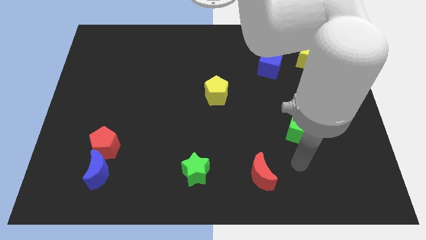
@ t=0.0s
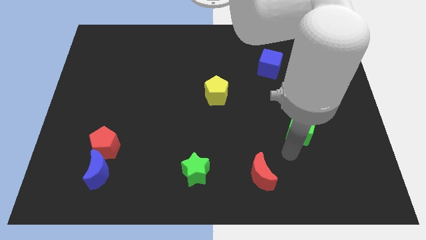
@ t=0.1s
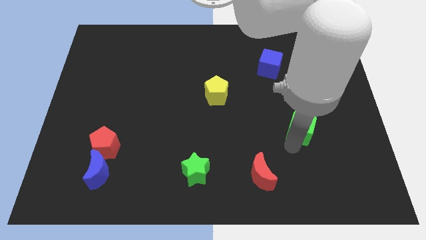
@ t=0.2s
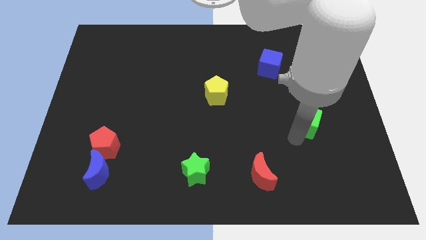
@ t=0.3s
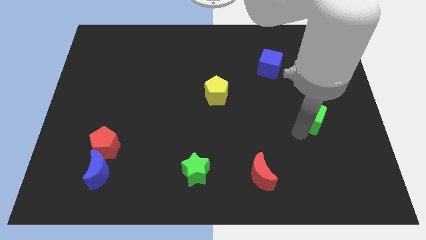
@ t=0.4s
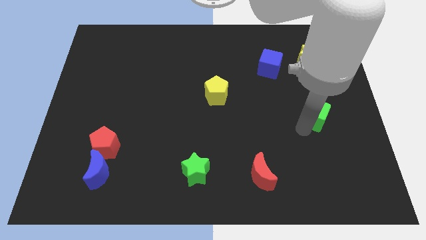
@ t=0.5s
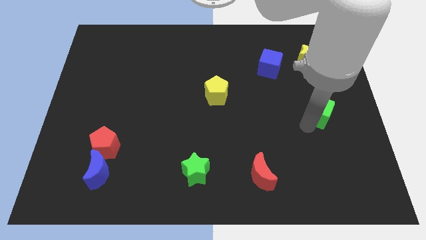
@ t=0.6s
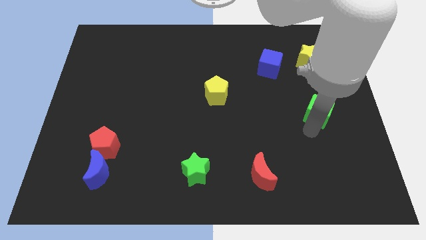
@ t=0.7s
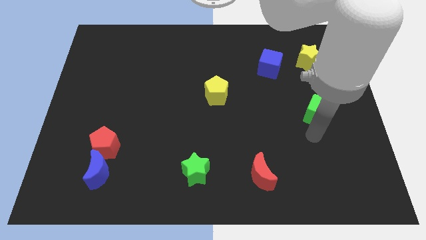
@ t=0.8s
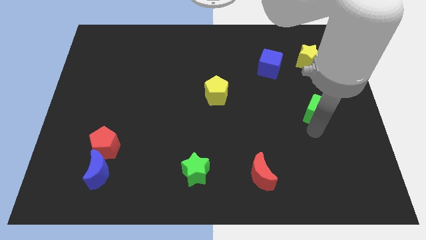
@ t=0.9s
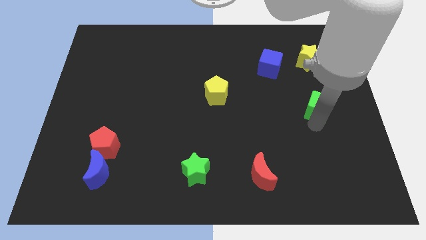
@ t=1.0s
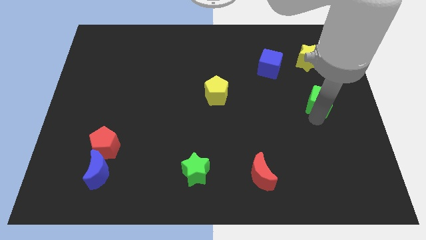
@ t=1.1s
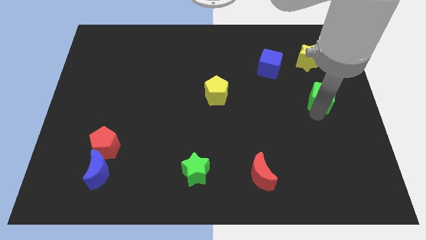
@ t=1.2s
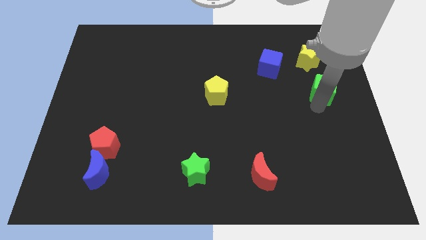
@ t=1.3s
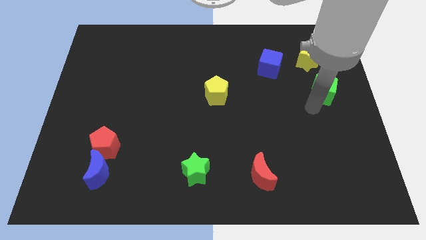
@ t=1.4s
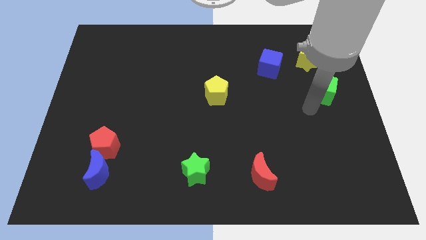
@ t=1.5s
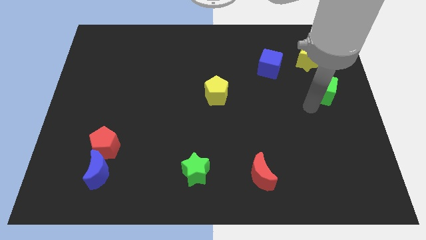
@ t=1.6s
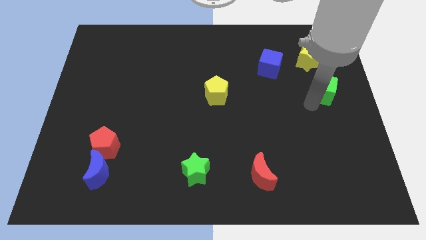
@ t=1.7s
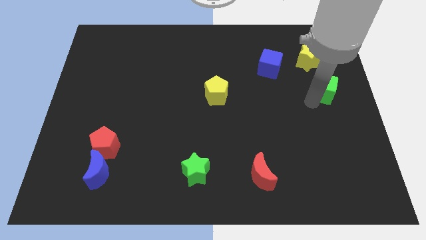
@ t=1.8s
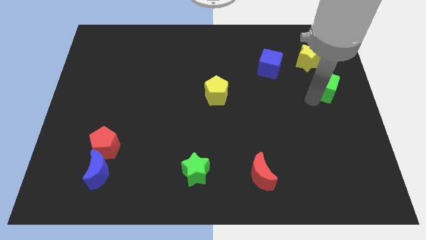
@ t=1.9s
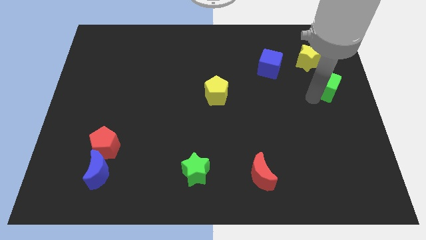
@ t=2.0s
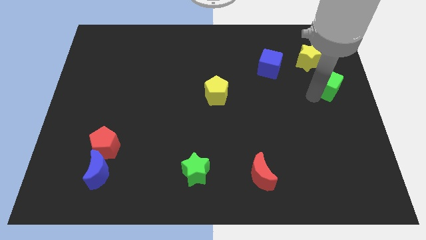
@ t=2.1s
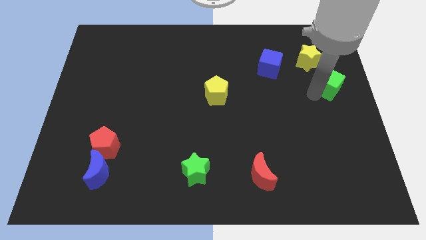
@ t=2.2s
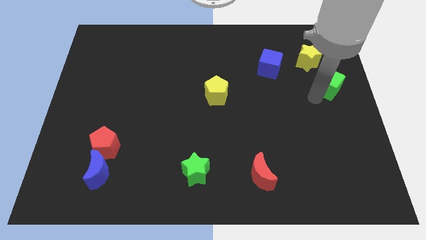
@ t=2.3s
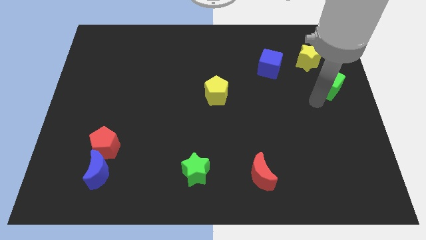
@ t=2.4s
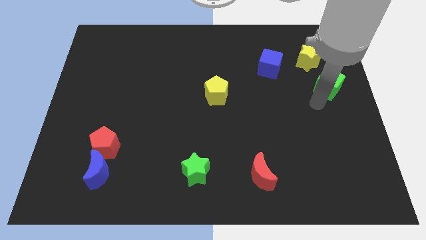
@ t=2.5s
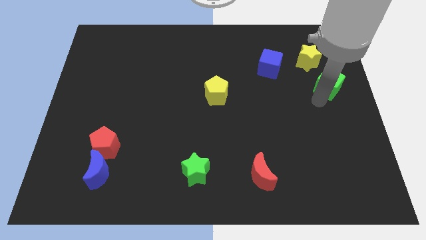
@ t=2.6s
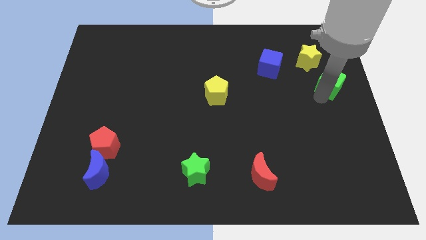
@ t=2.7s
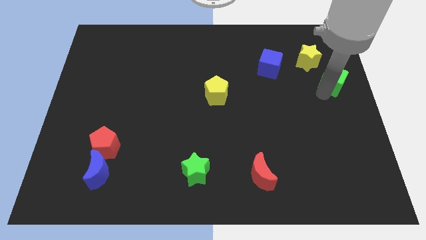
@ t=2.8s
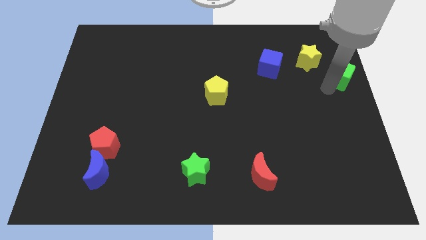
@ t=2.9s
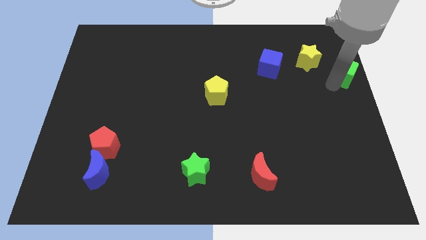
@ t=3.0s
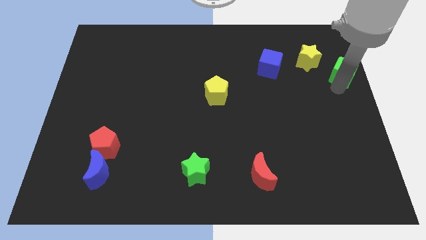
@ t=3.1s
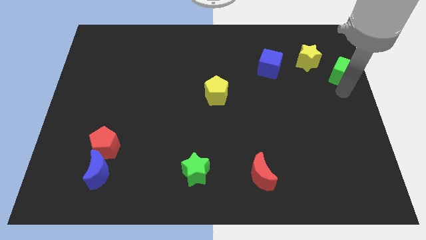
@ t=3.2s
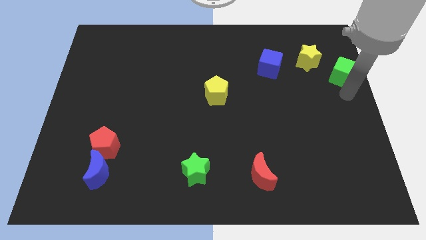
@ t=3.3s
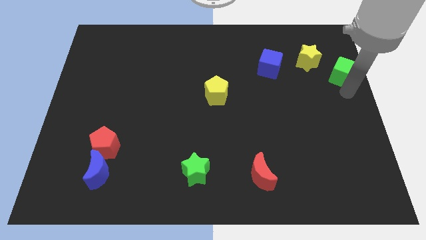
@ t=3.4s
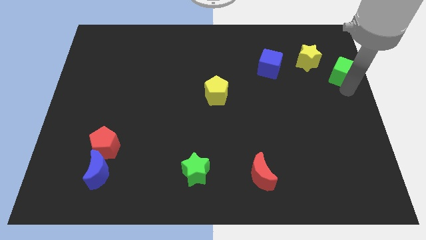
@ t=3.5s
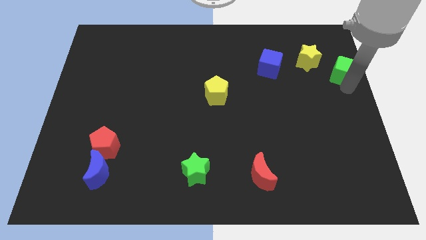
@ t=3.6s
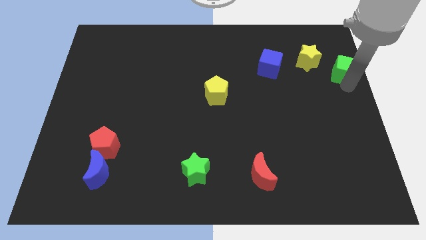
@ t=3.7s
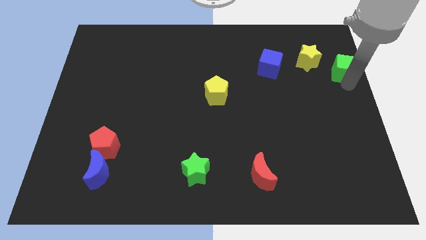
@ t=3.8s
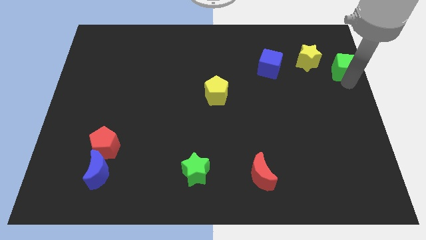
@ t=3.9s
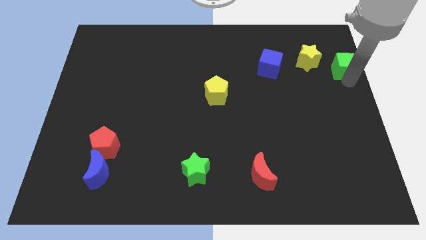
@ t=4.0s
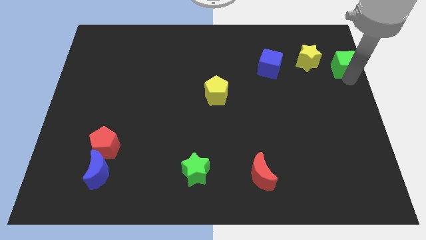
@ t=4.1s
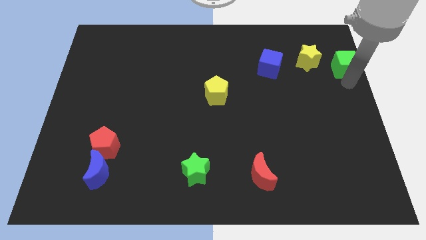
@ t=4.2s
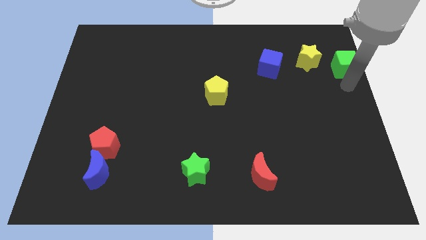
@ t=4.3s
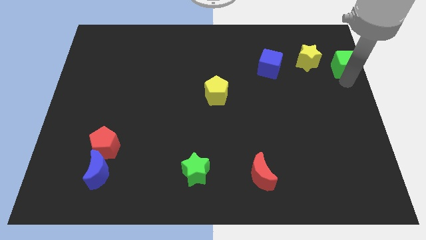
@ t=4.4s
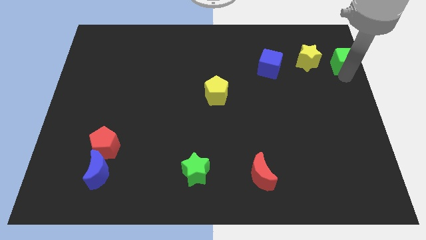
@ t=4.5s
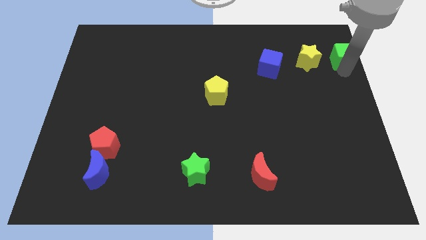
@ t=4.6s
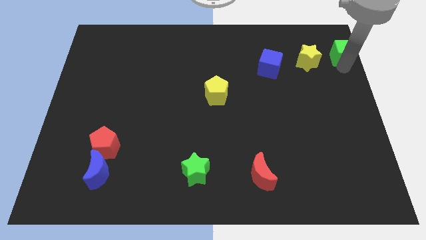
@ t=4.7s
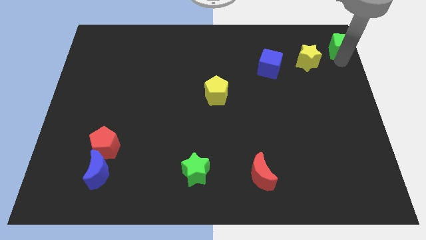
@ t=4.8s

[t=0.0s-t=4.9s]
push the green cube to the upper right corner

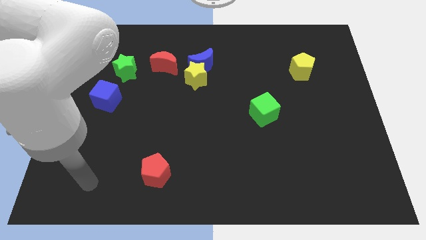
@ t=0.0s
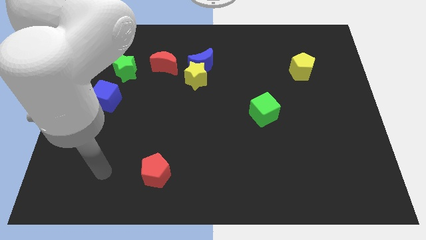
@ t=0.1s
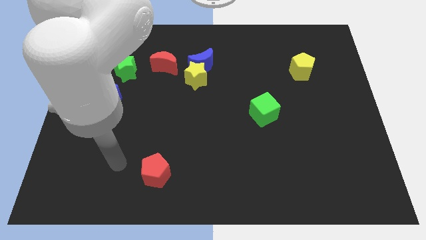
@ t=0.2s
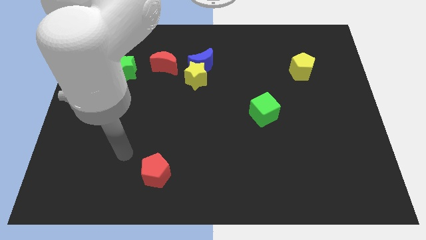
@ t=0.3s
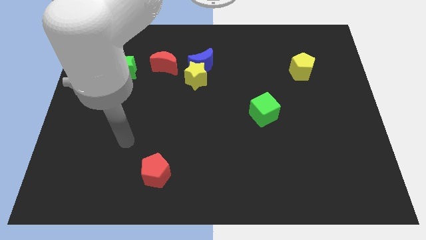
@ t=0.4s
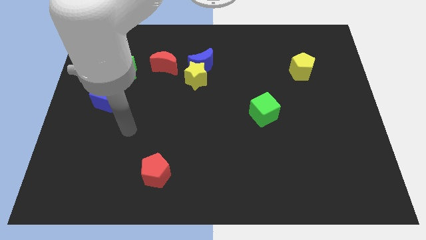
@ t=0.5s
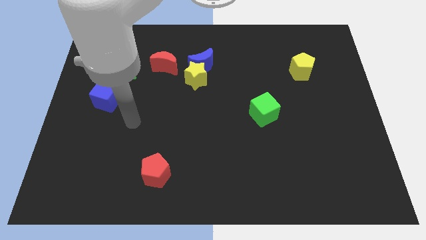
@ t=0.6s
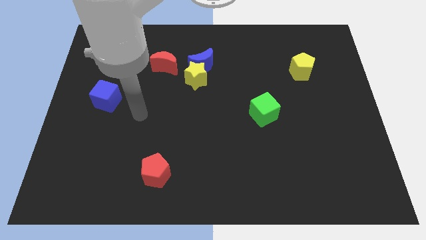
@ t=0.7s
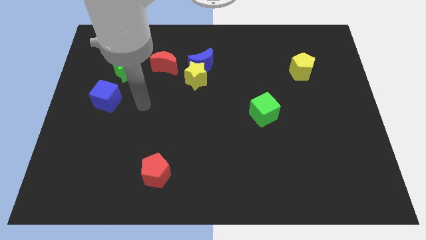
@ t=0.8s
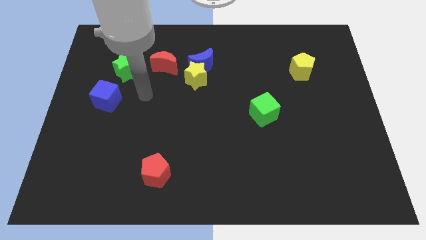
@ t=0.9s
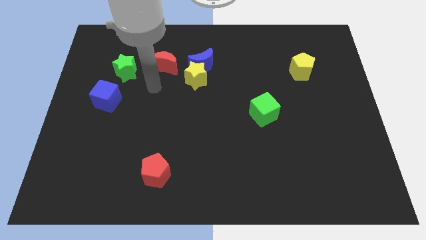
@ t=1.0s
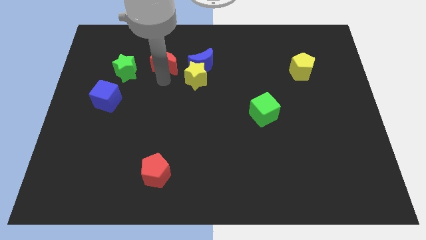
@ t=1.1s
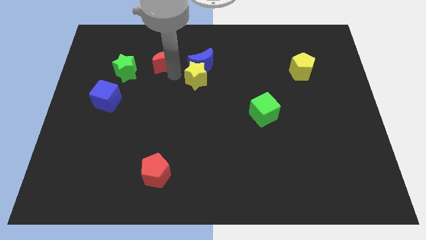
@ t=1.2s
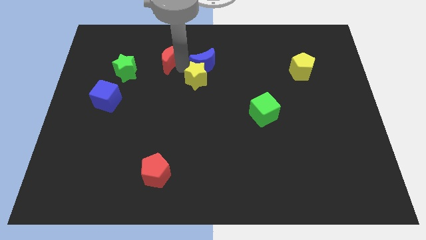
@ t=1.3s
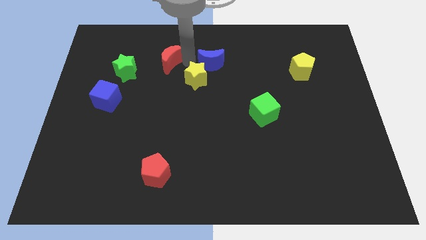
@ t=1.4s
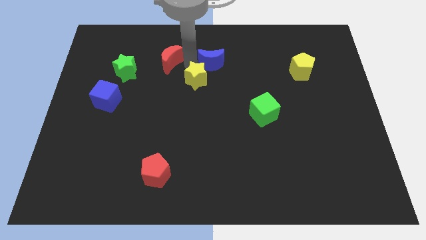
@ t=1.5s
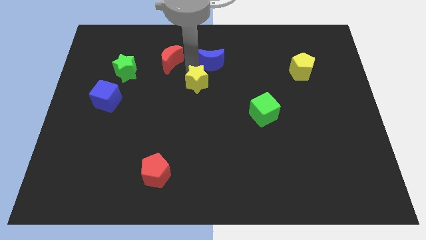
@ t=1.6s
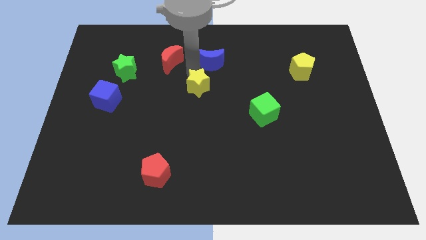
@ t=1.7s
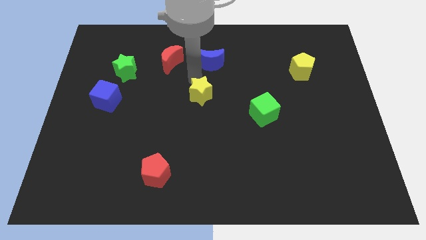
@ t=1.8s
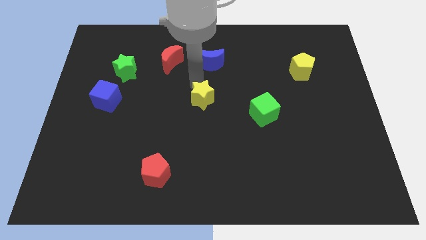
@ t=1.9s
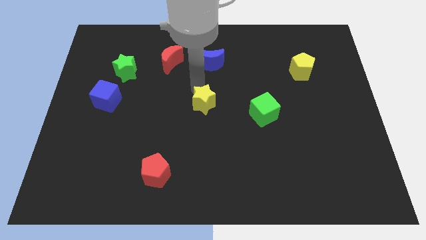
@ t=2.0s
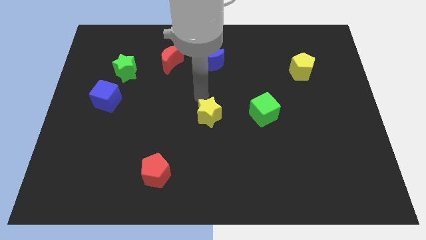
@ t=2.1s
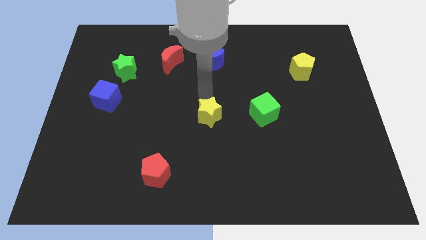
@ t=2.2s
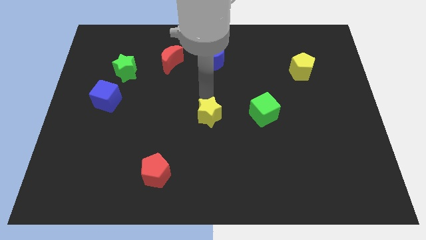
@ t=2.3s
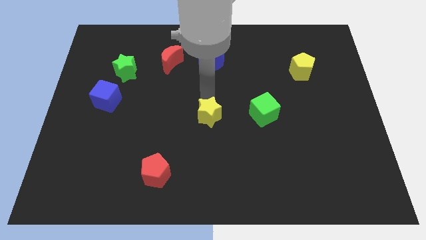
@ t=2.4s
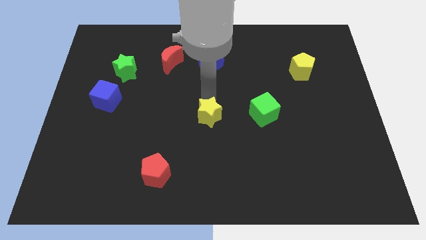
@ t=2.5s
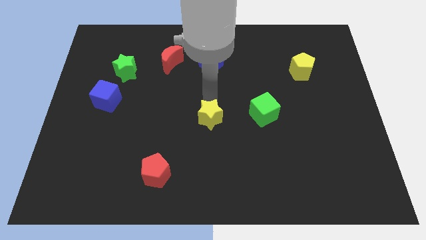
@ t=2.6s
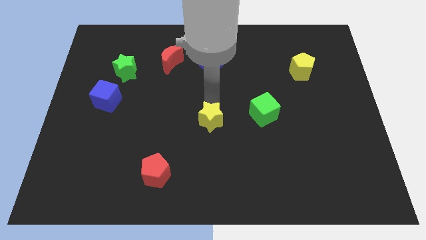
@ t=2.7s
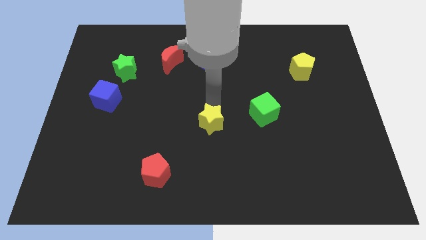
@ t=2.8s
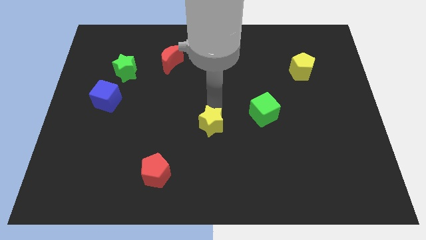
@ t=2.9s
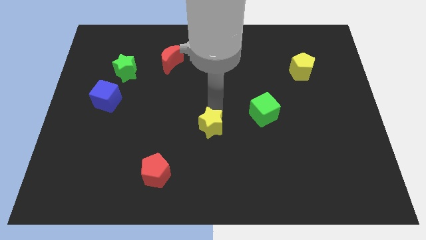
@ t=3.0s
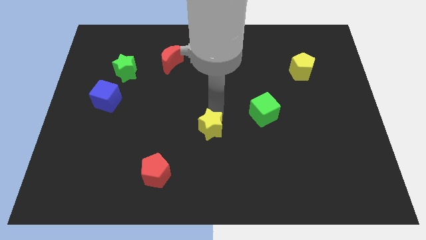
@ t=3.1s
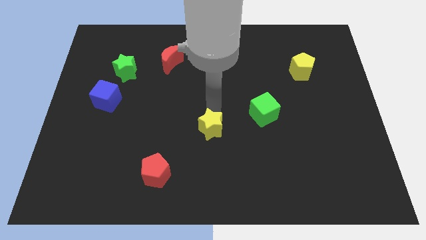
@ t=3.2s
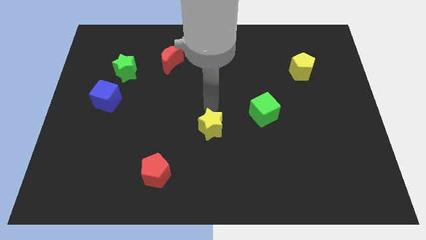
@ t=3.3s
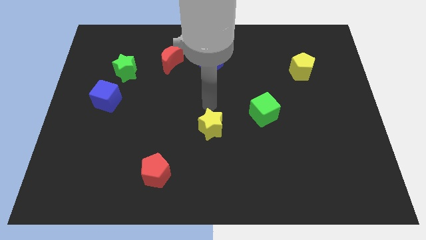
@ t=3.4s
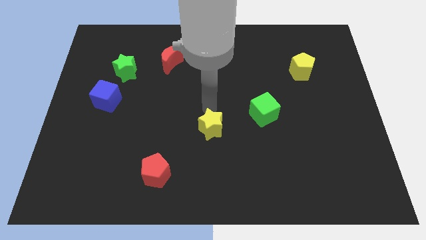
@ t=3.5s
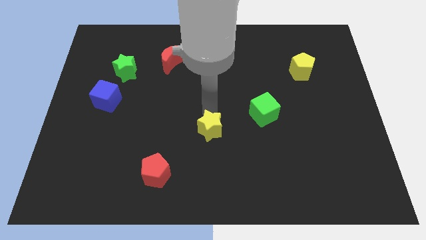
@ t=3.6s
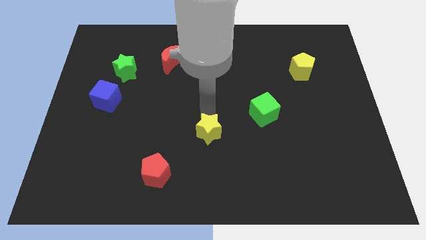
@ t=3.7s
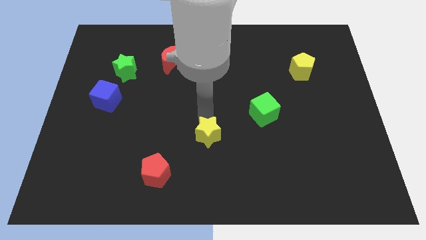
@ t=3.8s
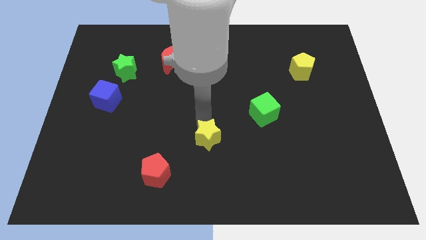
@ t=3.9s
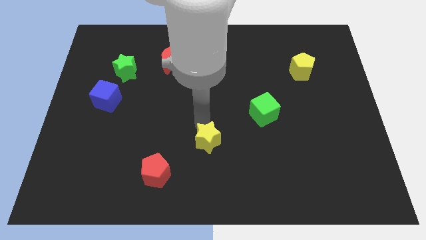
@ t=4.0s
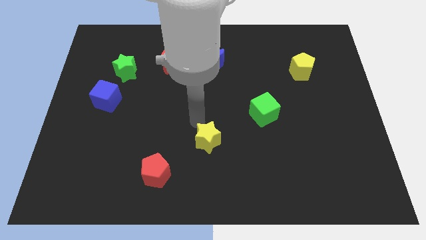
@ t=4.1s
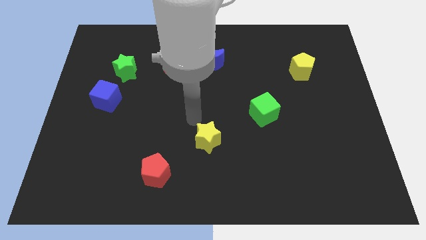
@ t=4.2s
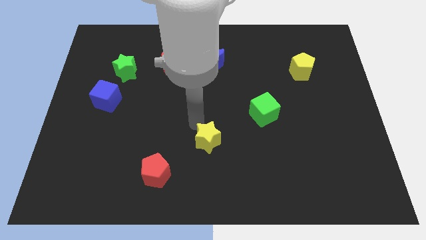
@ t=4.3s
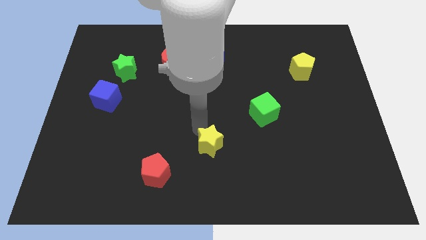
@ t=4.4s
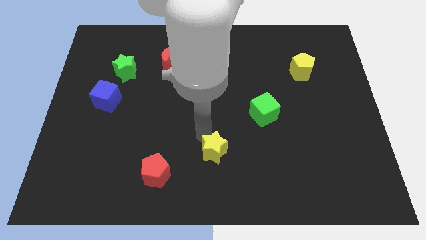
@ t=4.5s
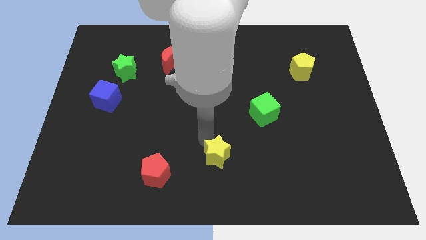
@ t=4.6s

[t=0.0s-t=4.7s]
push the yellow star to the bottom side
